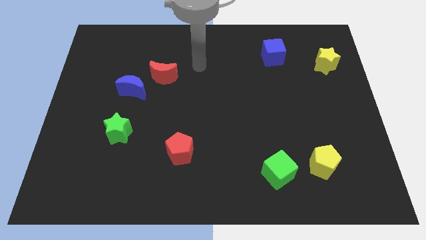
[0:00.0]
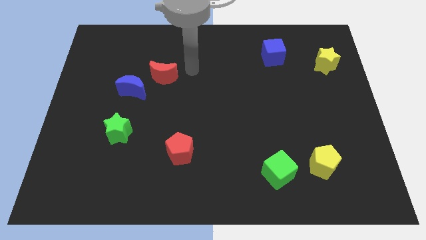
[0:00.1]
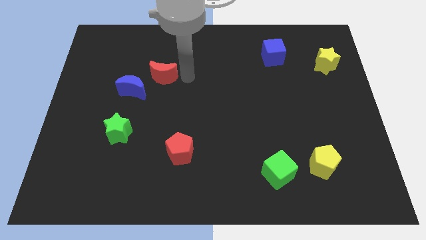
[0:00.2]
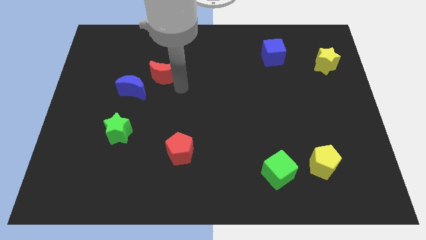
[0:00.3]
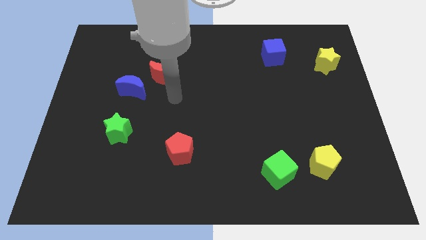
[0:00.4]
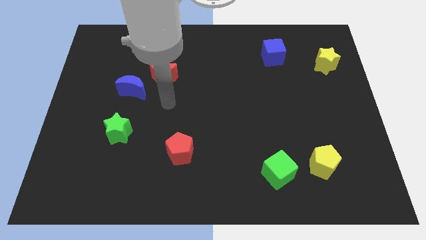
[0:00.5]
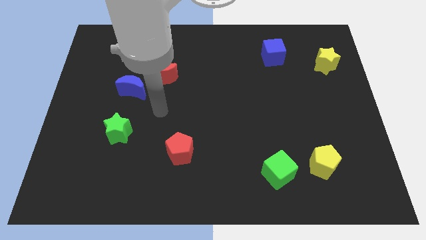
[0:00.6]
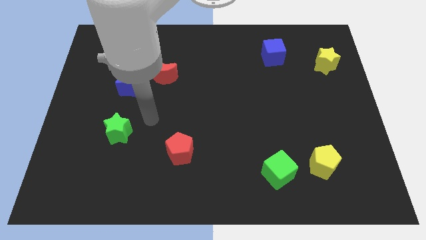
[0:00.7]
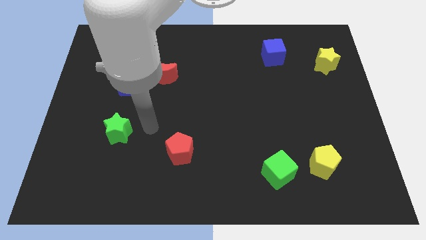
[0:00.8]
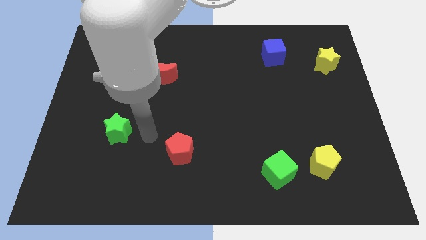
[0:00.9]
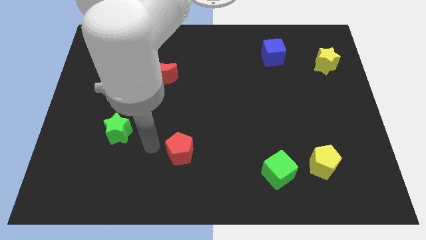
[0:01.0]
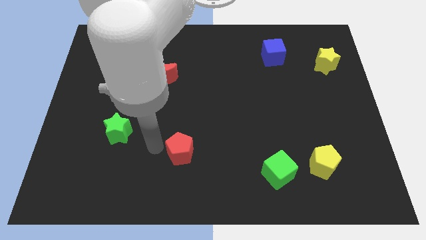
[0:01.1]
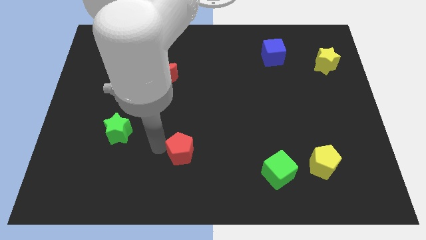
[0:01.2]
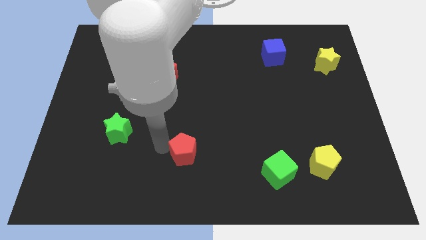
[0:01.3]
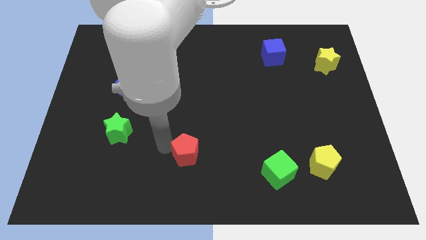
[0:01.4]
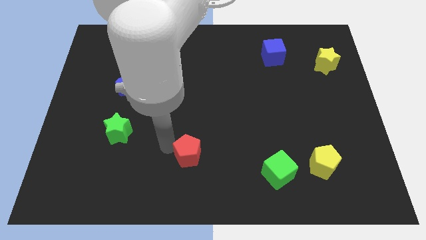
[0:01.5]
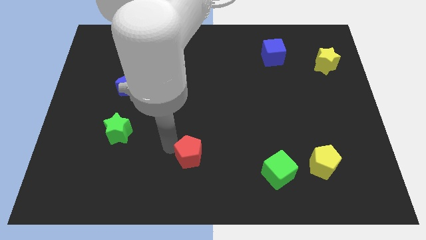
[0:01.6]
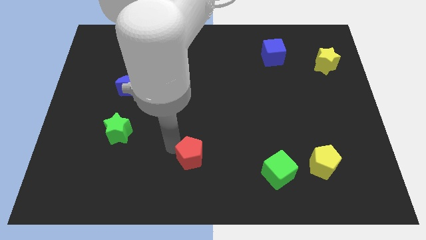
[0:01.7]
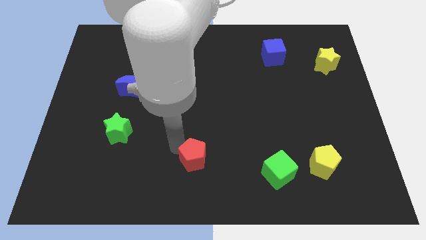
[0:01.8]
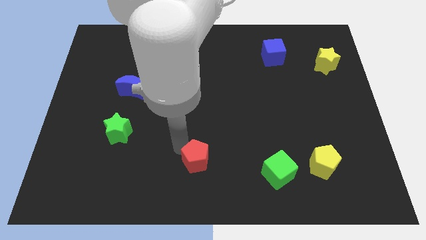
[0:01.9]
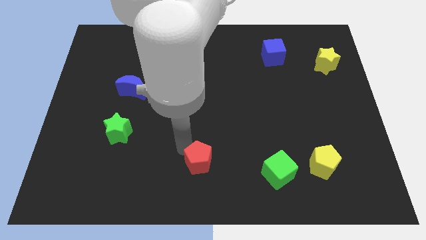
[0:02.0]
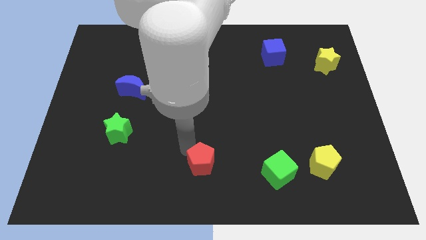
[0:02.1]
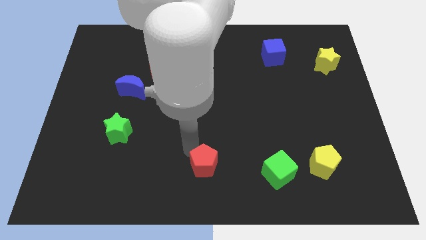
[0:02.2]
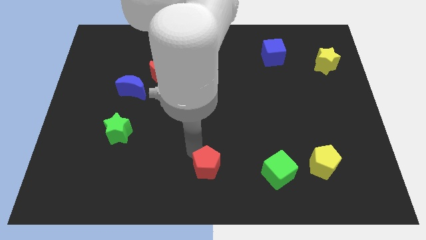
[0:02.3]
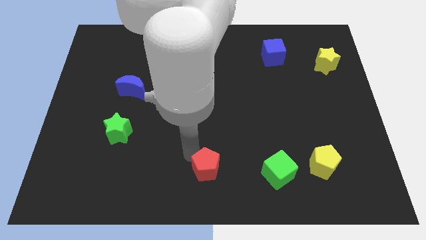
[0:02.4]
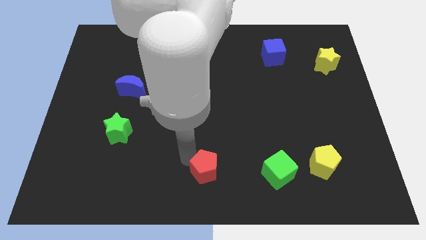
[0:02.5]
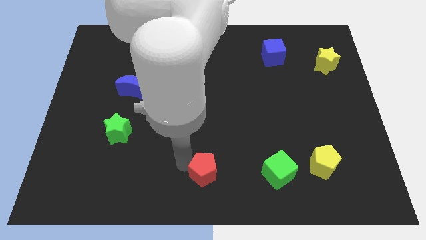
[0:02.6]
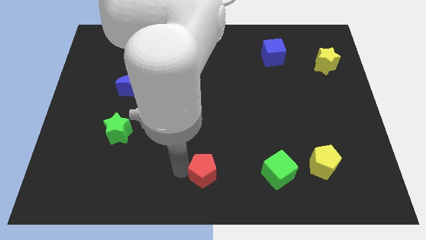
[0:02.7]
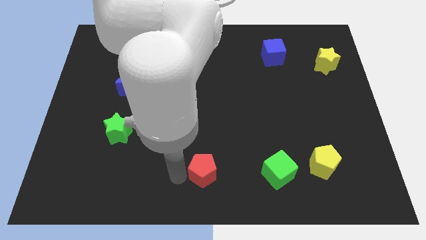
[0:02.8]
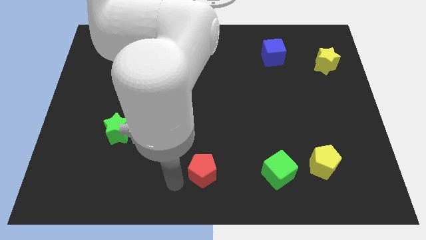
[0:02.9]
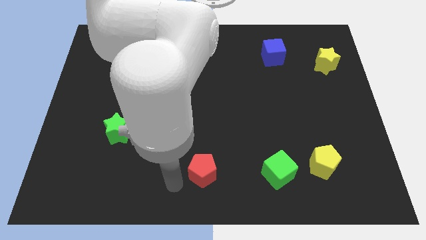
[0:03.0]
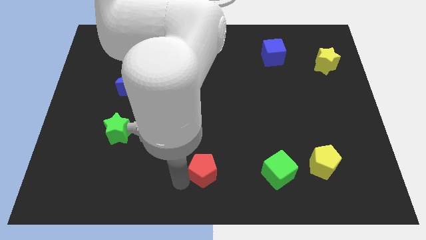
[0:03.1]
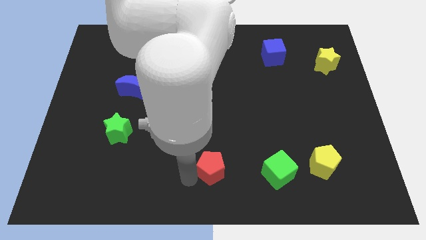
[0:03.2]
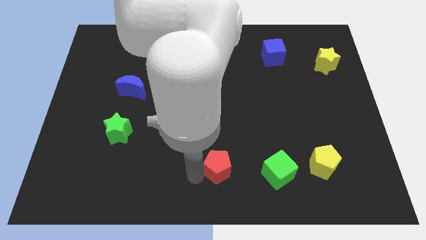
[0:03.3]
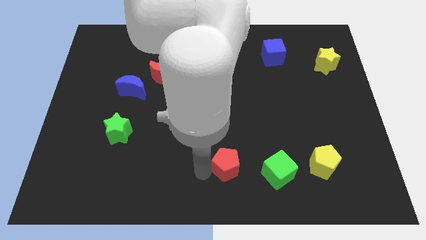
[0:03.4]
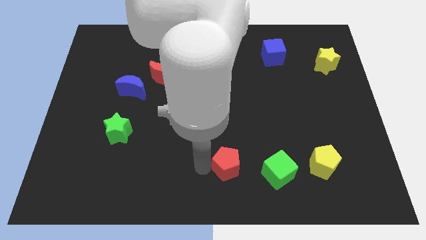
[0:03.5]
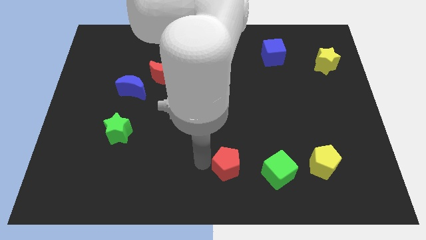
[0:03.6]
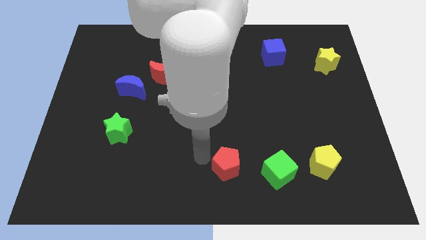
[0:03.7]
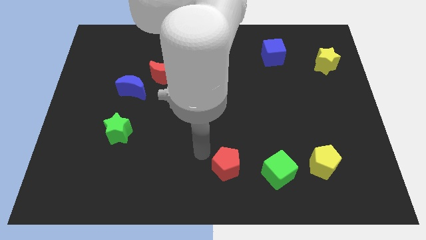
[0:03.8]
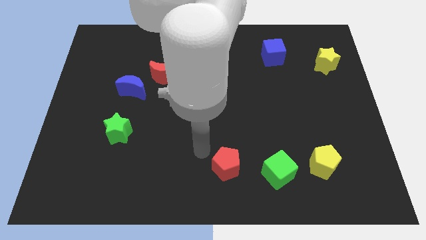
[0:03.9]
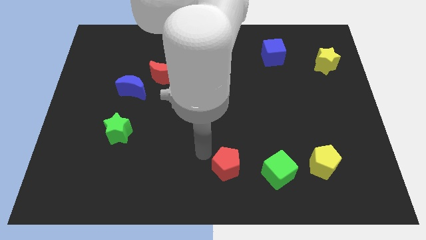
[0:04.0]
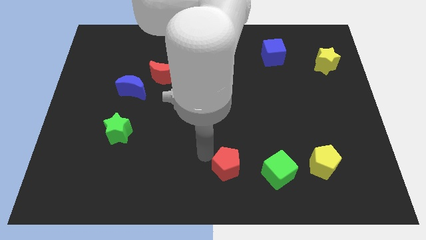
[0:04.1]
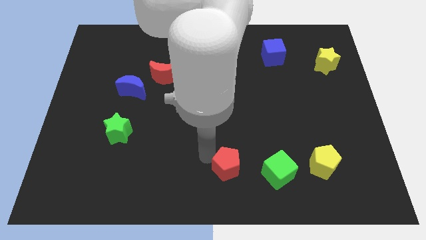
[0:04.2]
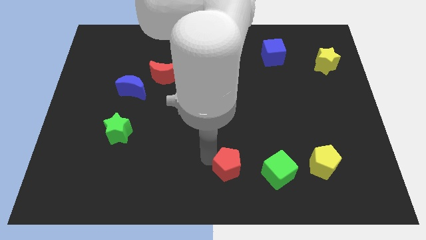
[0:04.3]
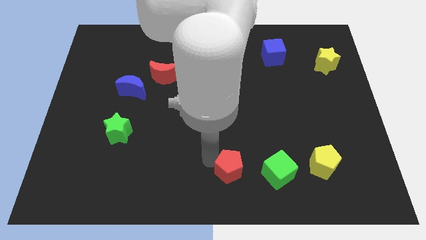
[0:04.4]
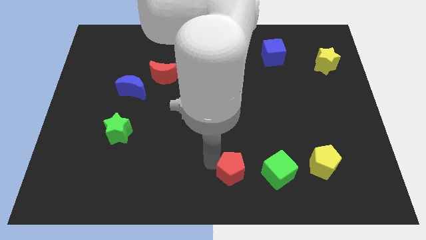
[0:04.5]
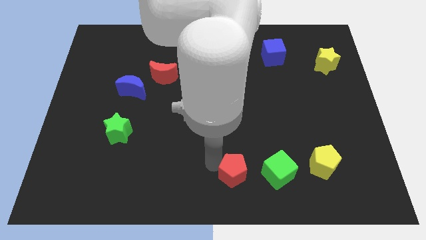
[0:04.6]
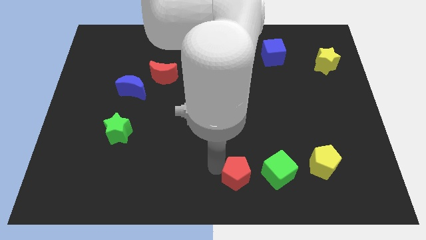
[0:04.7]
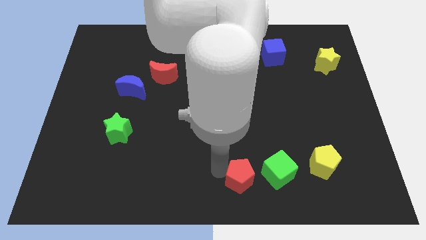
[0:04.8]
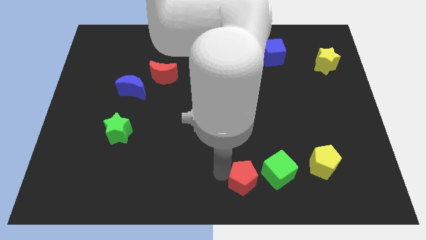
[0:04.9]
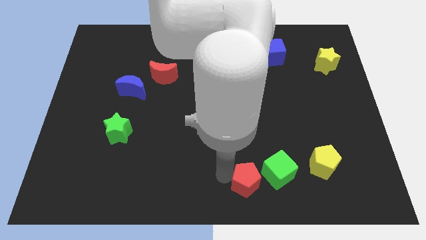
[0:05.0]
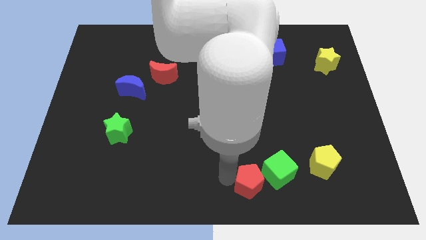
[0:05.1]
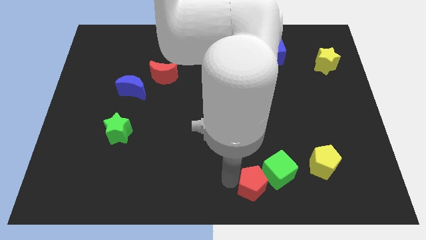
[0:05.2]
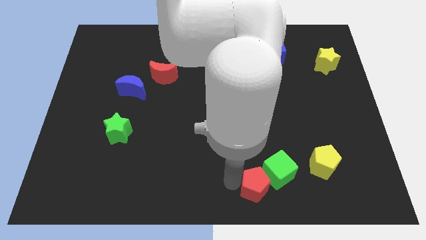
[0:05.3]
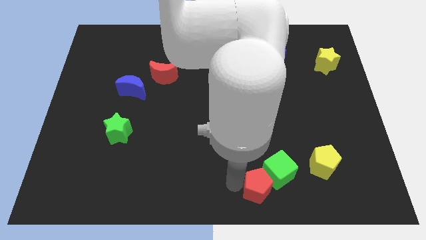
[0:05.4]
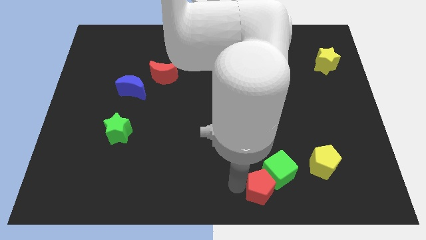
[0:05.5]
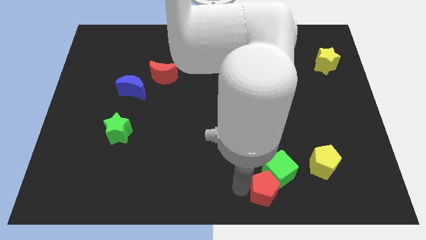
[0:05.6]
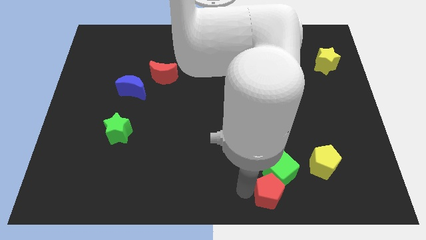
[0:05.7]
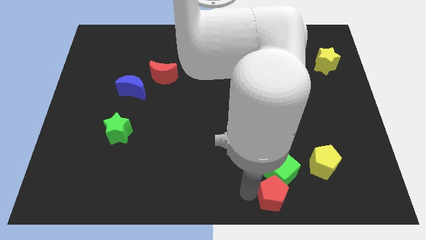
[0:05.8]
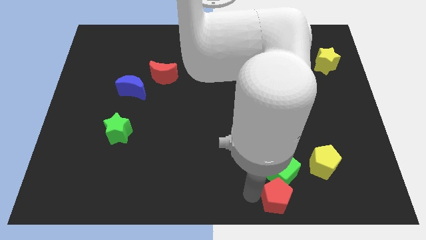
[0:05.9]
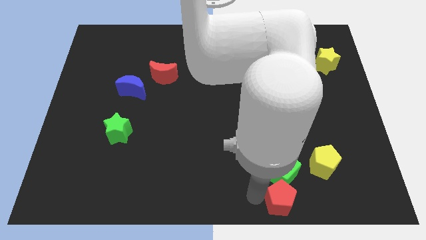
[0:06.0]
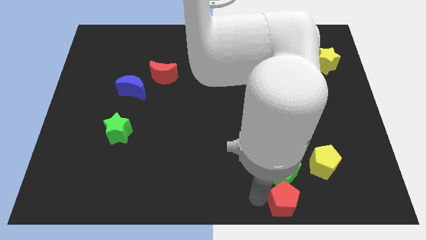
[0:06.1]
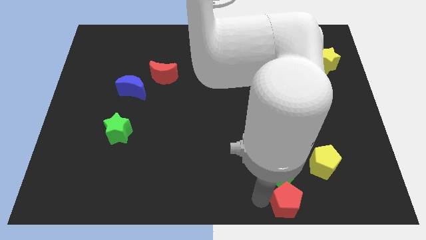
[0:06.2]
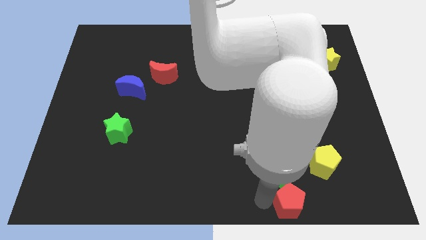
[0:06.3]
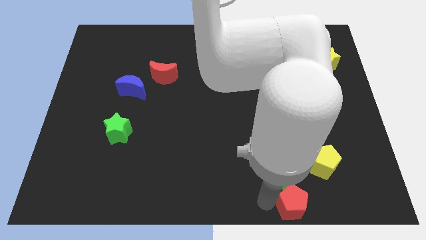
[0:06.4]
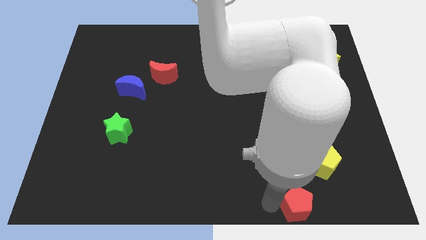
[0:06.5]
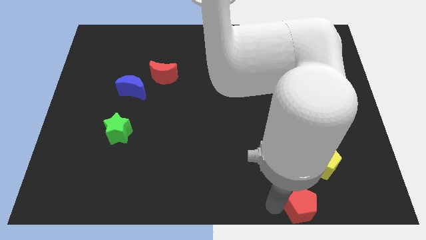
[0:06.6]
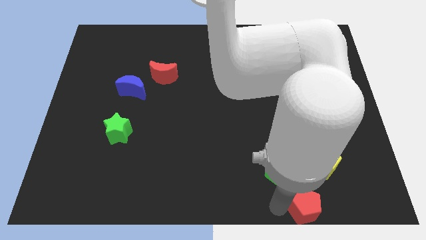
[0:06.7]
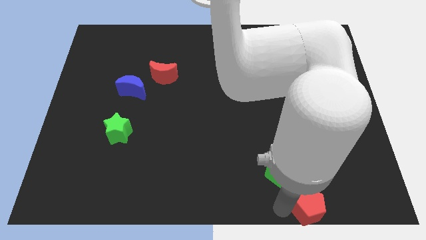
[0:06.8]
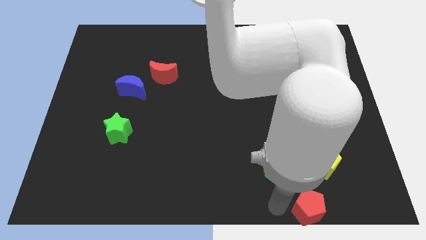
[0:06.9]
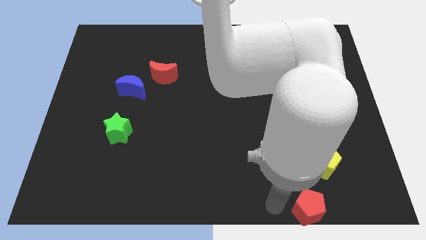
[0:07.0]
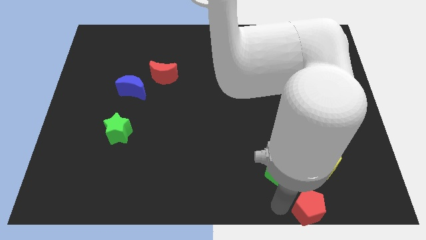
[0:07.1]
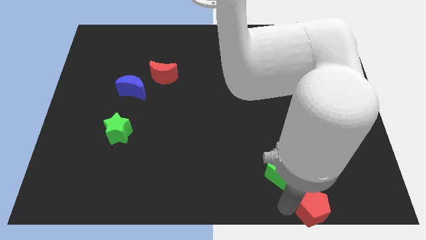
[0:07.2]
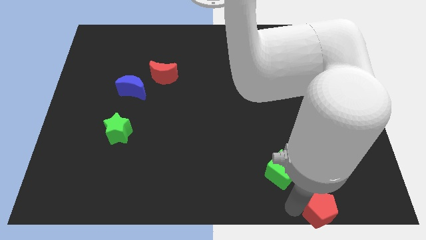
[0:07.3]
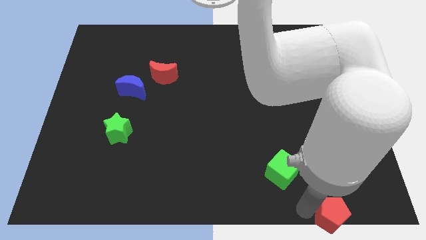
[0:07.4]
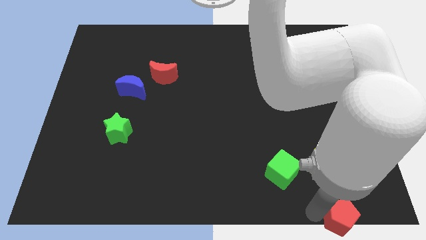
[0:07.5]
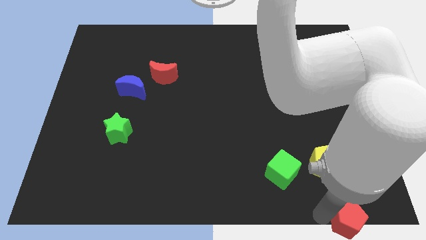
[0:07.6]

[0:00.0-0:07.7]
put the red pentagon to the bottom right corner
